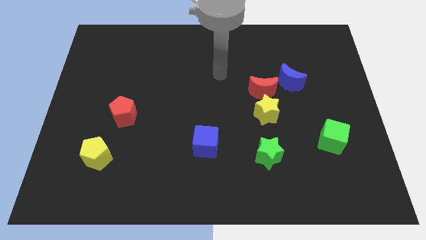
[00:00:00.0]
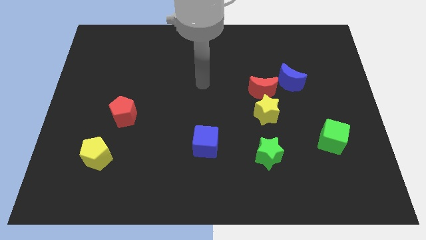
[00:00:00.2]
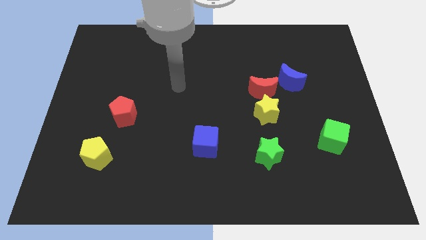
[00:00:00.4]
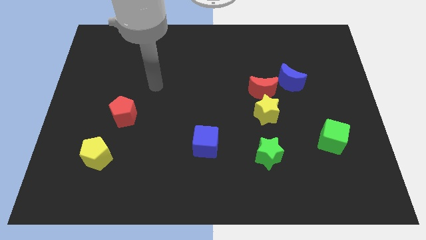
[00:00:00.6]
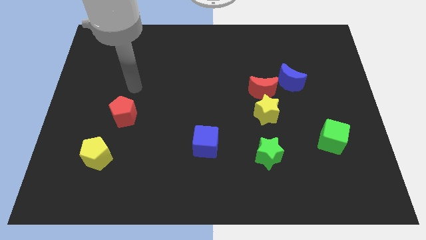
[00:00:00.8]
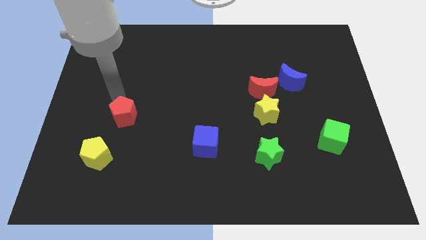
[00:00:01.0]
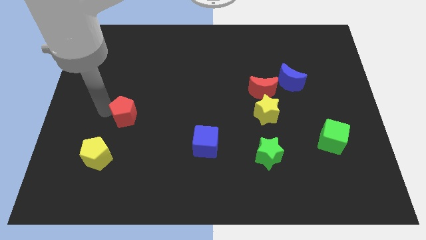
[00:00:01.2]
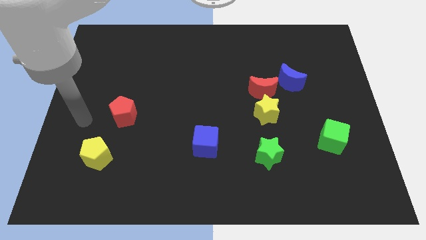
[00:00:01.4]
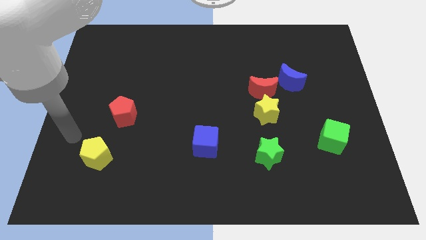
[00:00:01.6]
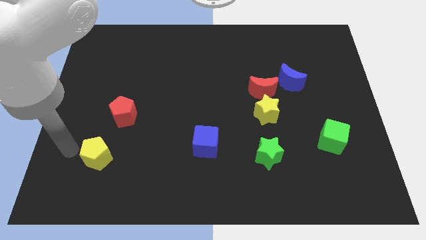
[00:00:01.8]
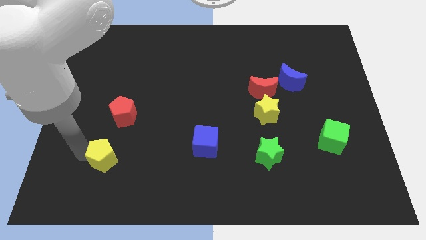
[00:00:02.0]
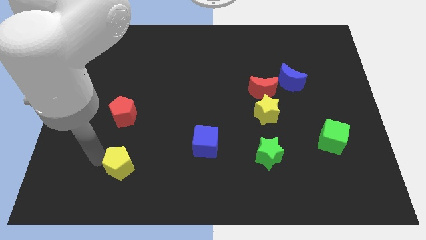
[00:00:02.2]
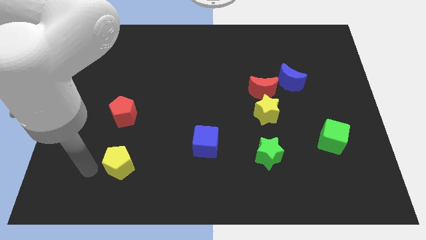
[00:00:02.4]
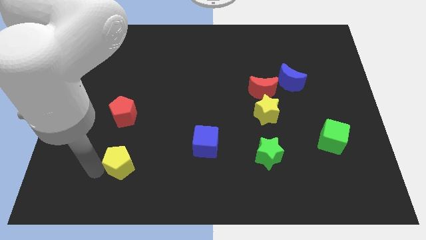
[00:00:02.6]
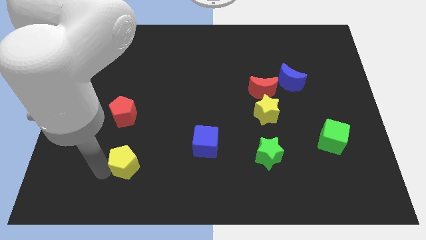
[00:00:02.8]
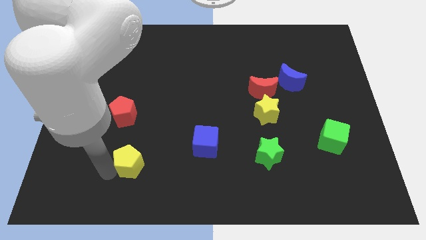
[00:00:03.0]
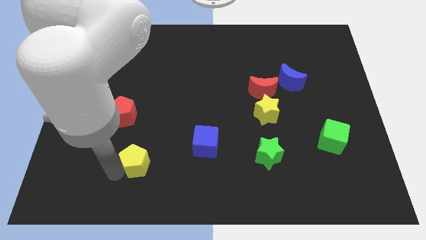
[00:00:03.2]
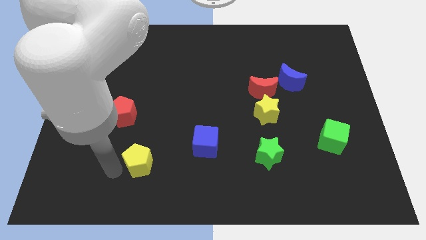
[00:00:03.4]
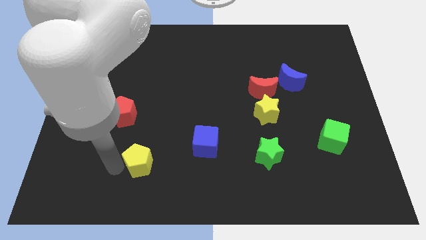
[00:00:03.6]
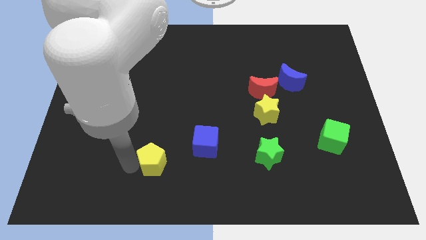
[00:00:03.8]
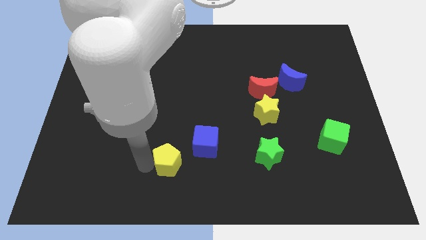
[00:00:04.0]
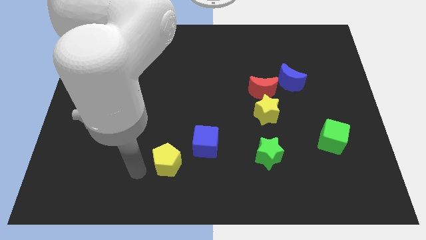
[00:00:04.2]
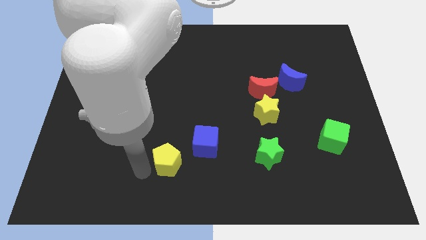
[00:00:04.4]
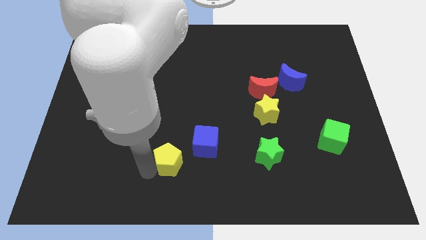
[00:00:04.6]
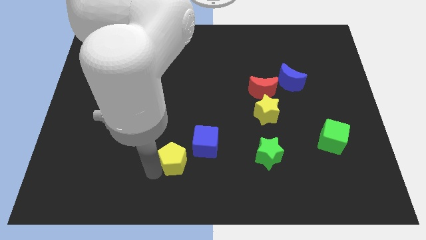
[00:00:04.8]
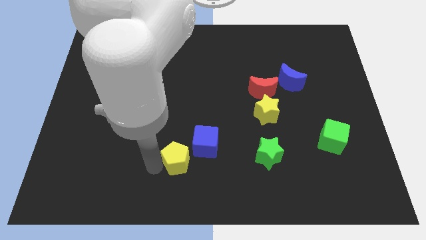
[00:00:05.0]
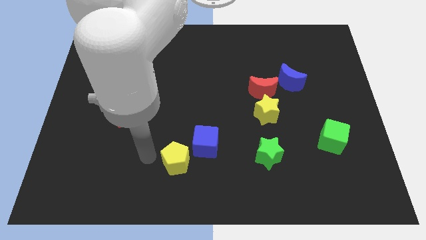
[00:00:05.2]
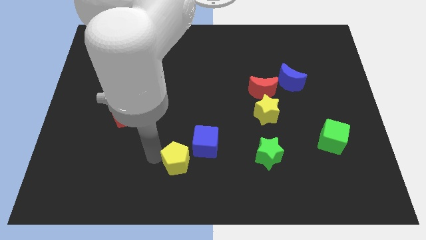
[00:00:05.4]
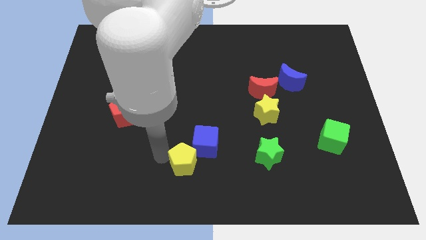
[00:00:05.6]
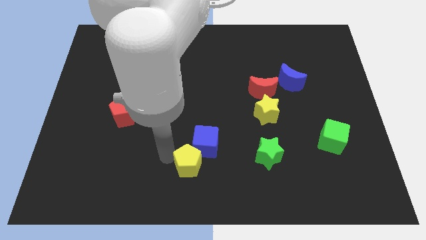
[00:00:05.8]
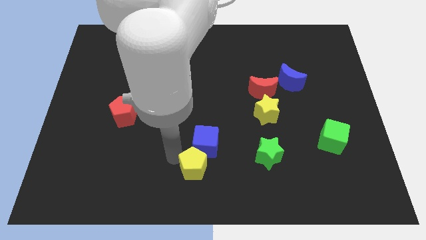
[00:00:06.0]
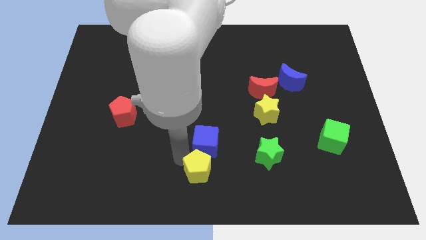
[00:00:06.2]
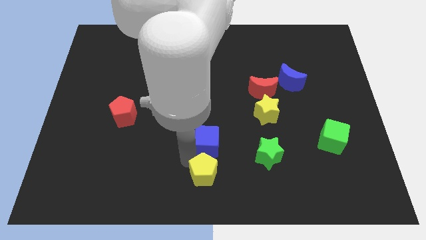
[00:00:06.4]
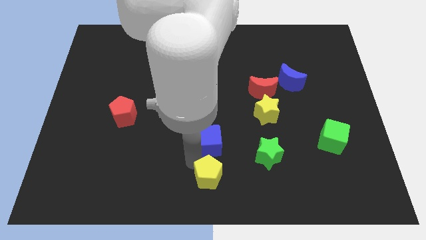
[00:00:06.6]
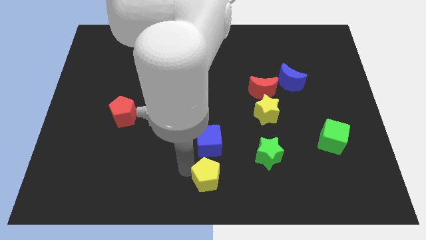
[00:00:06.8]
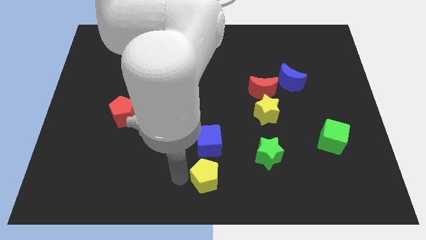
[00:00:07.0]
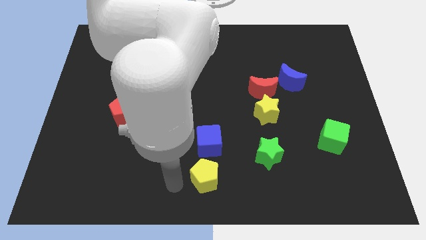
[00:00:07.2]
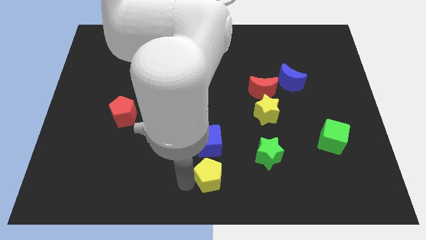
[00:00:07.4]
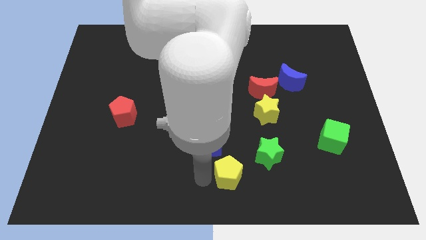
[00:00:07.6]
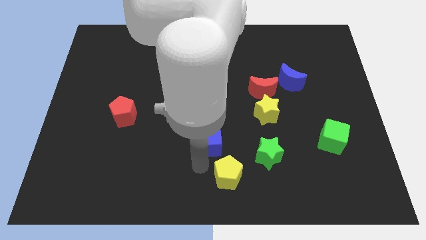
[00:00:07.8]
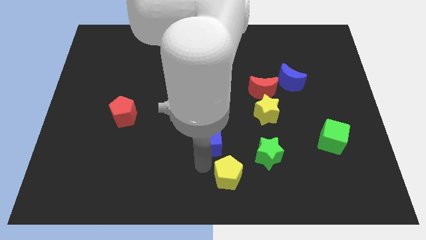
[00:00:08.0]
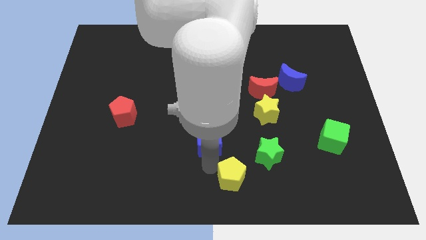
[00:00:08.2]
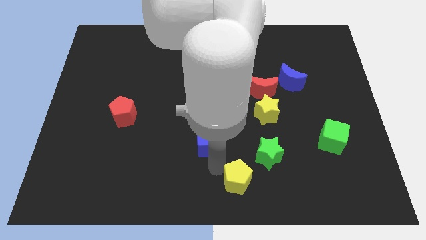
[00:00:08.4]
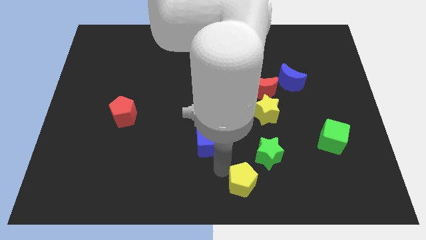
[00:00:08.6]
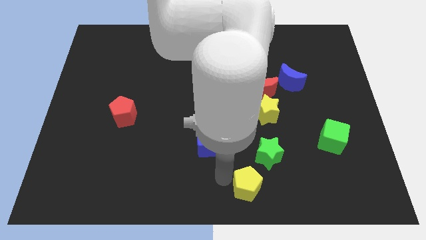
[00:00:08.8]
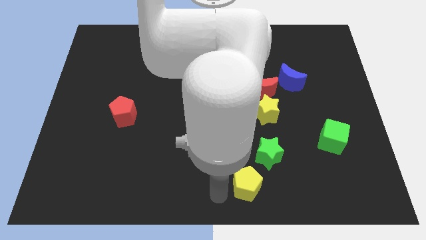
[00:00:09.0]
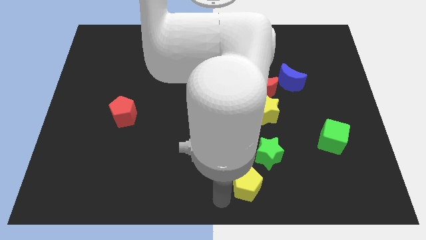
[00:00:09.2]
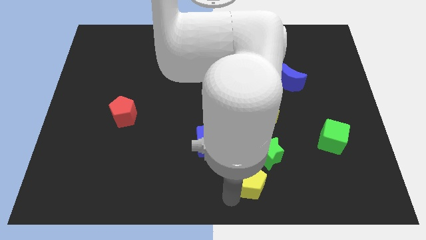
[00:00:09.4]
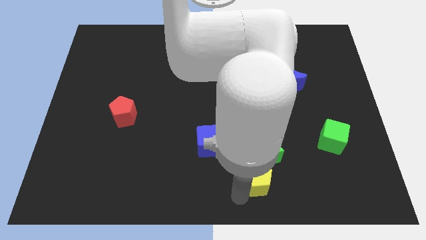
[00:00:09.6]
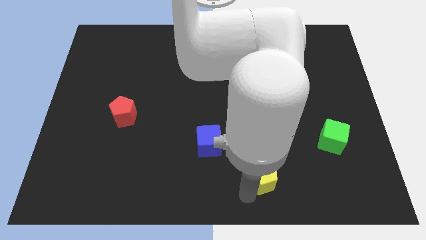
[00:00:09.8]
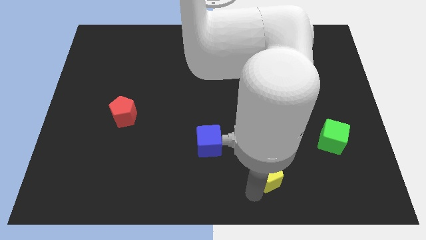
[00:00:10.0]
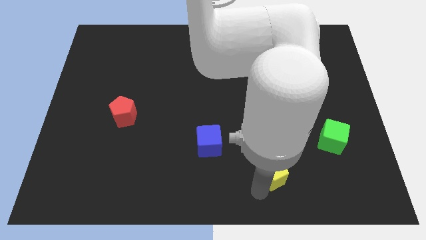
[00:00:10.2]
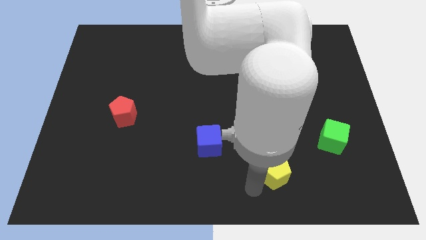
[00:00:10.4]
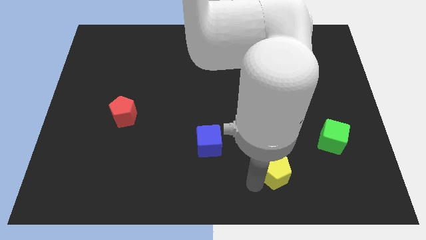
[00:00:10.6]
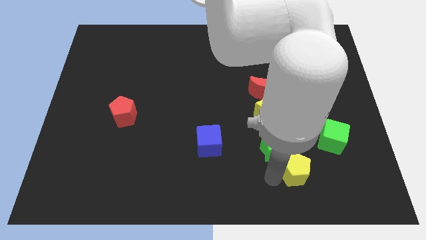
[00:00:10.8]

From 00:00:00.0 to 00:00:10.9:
push the yellow pentagon to the bottom left side of the green cube
